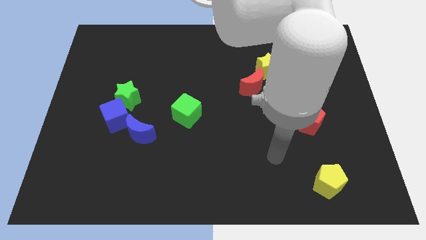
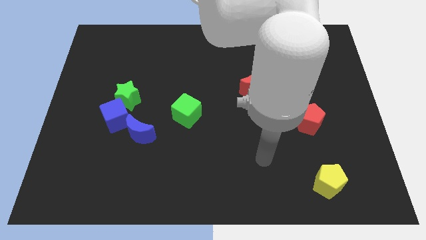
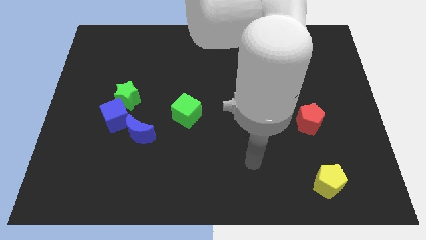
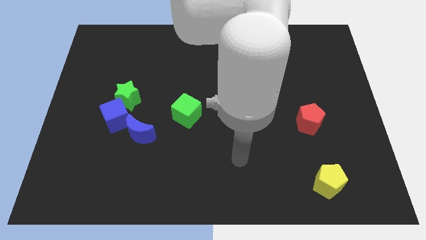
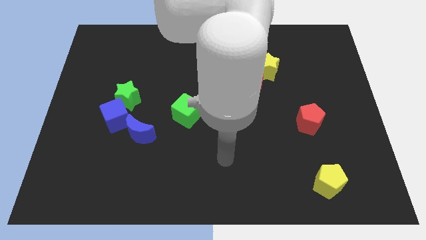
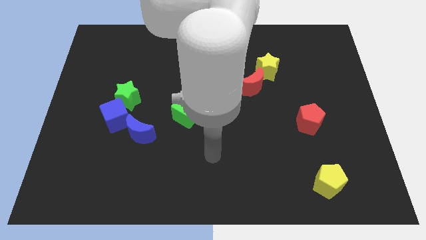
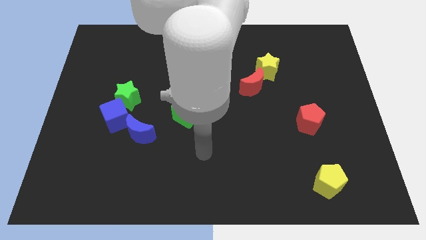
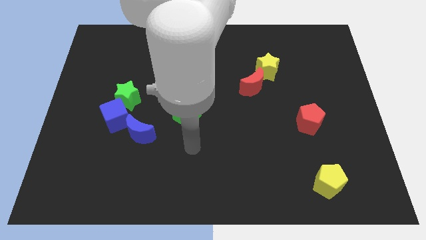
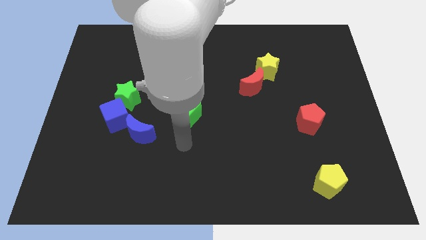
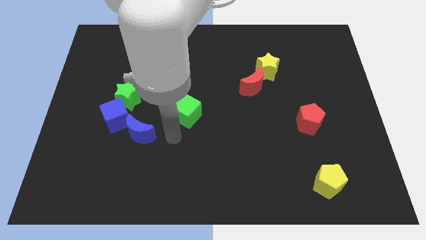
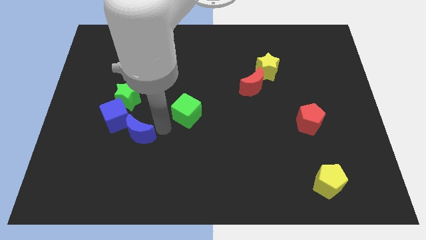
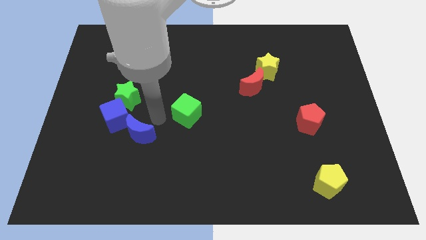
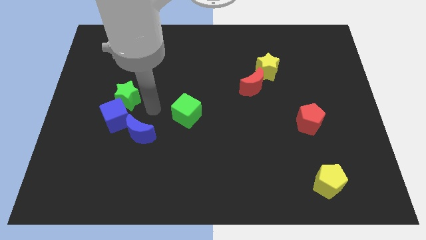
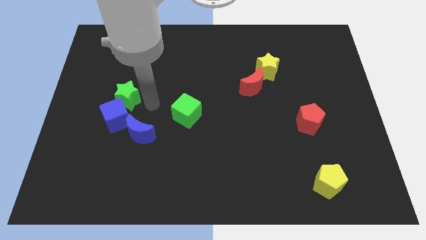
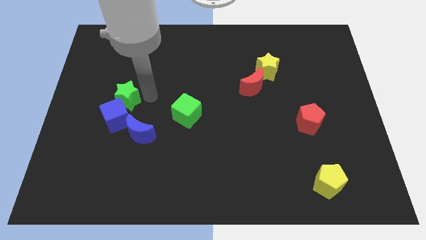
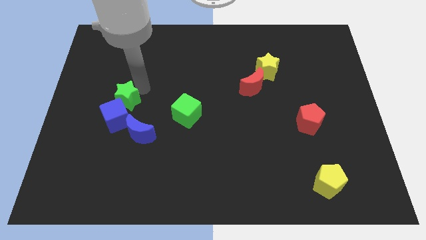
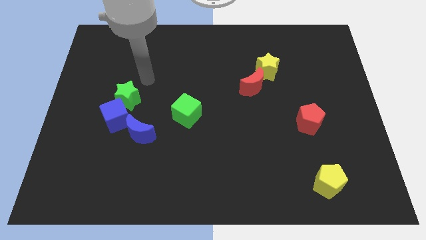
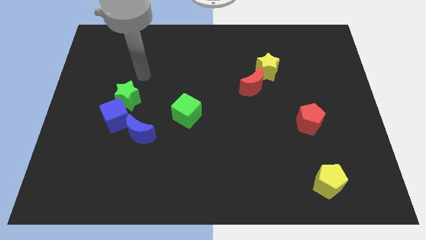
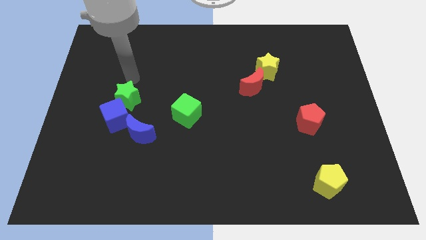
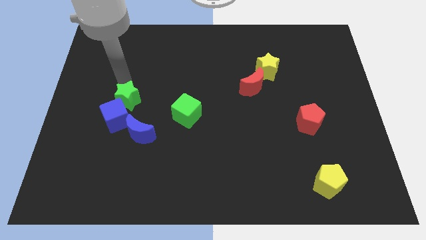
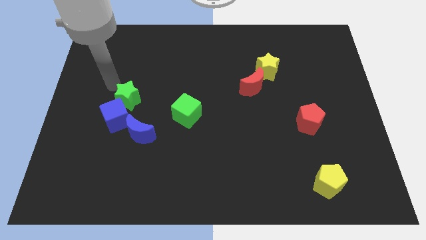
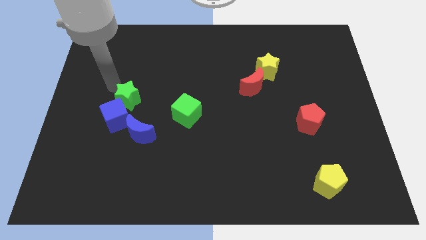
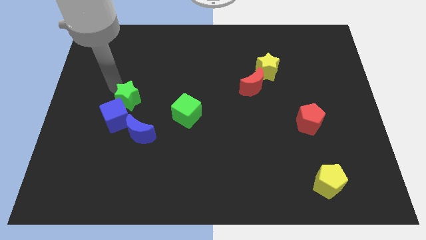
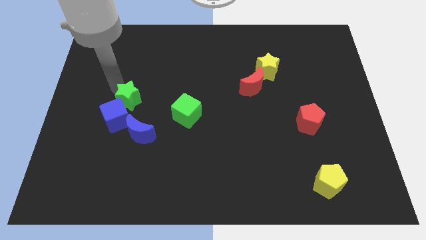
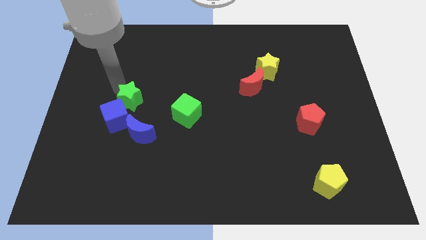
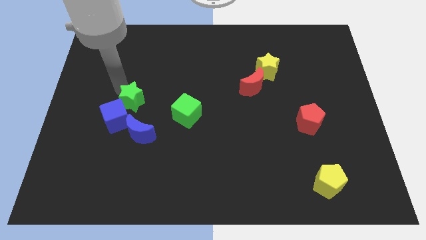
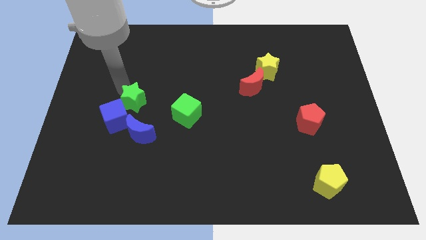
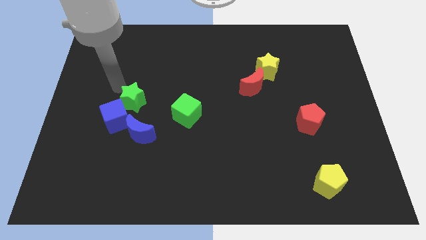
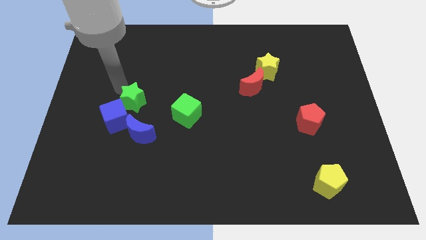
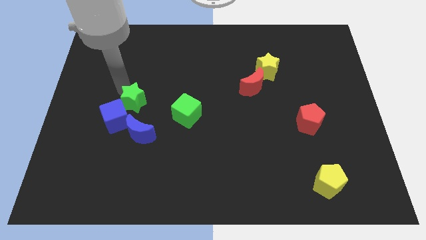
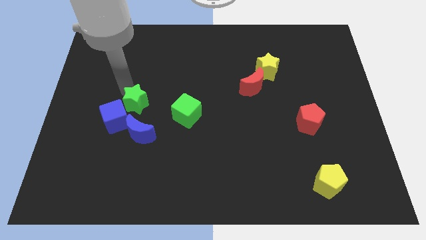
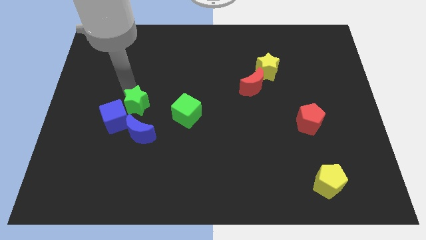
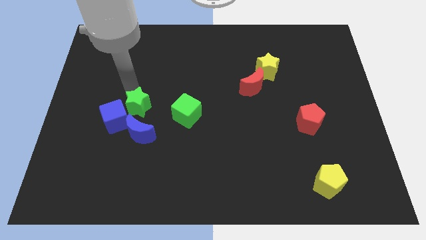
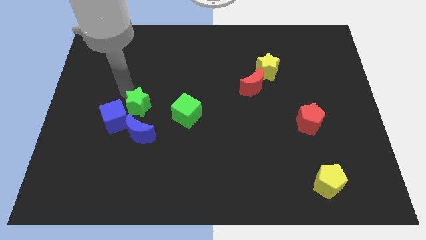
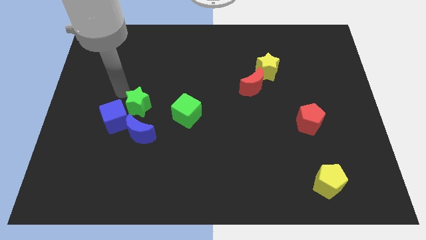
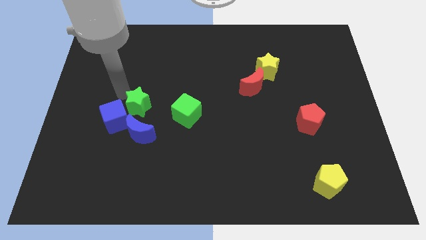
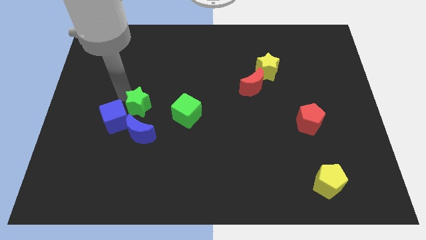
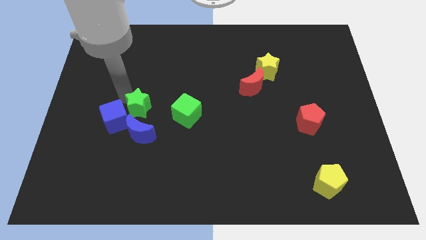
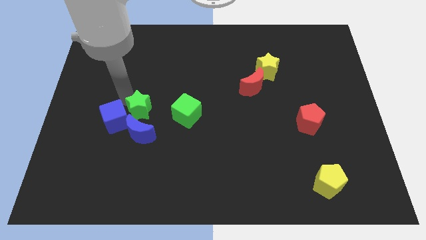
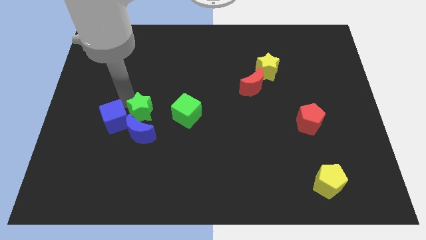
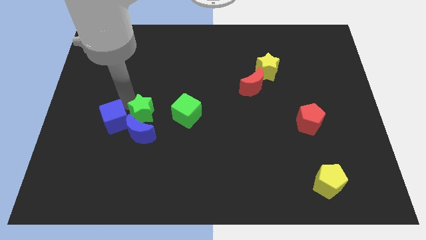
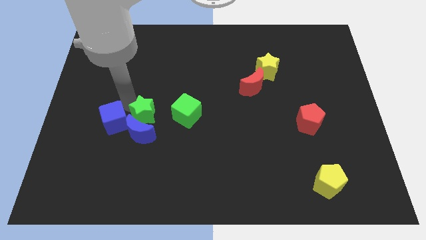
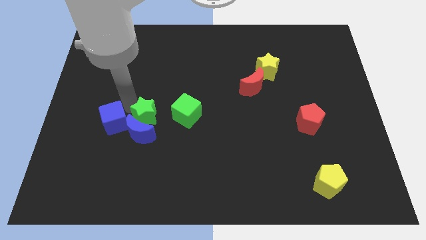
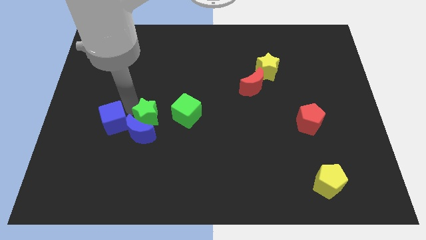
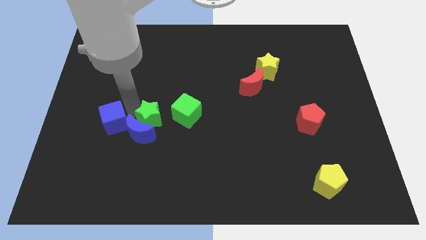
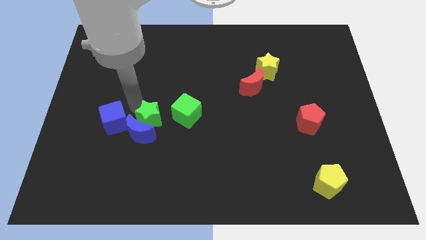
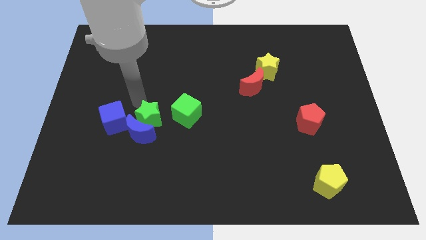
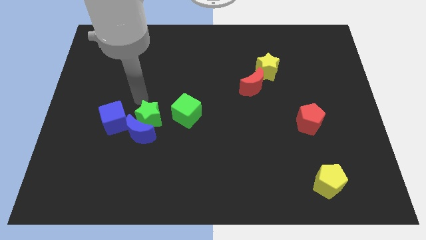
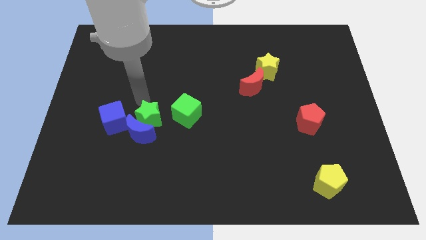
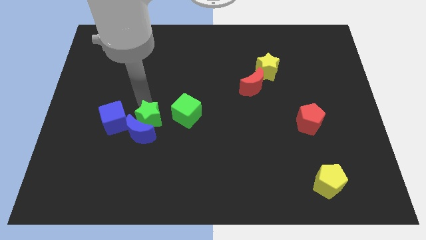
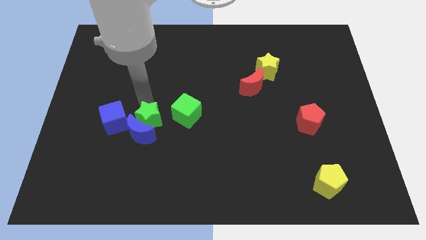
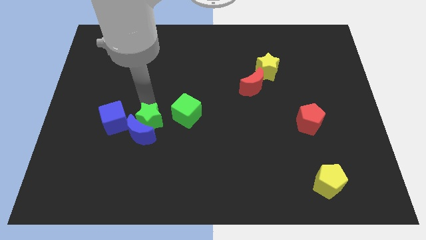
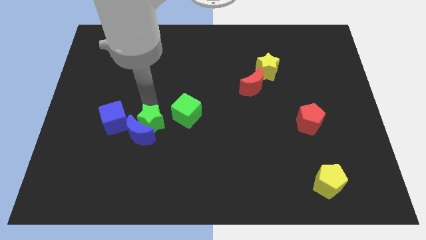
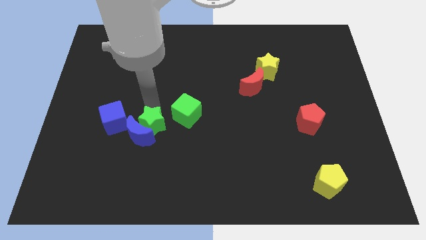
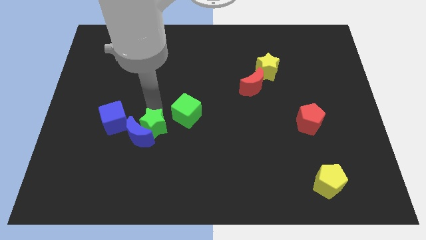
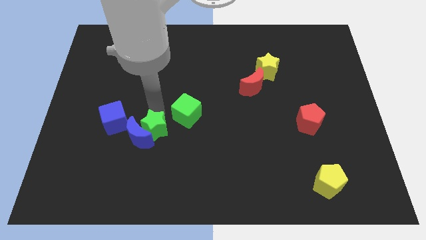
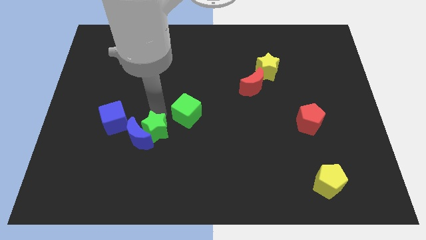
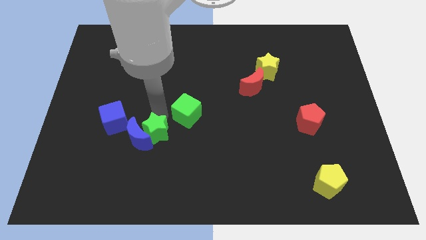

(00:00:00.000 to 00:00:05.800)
push the green star a little down

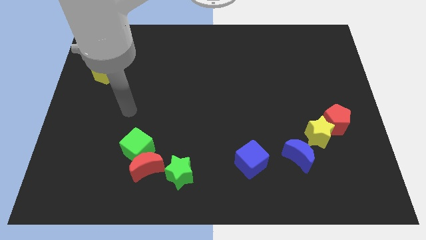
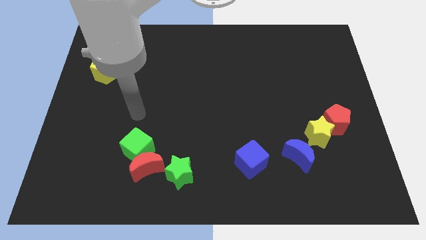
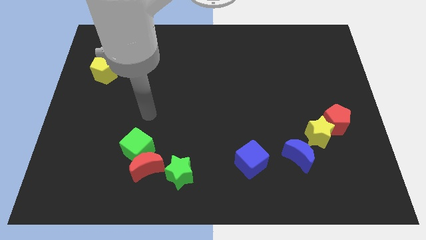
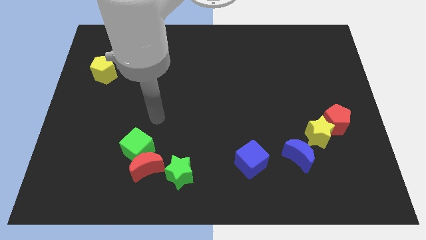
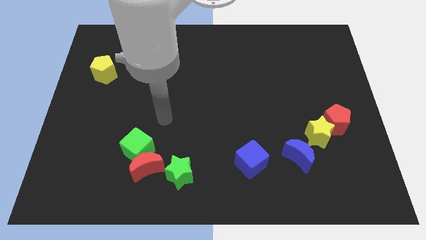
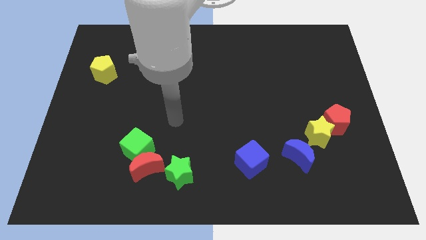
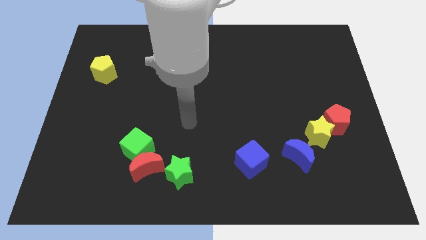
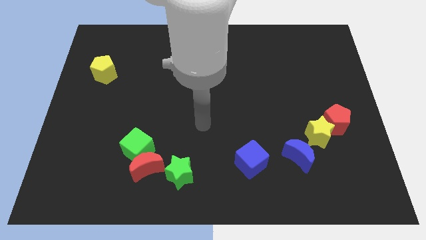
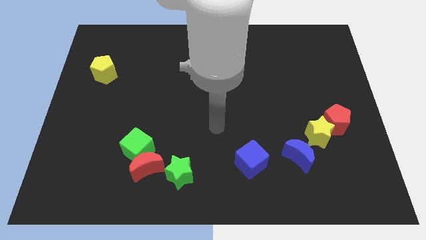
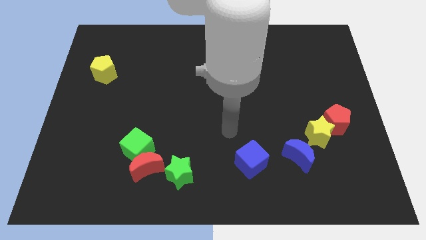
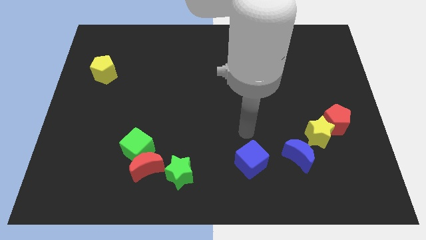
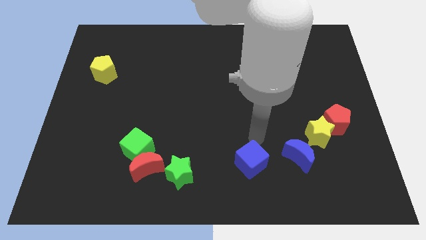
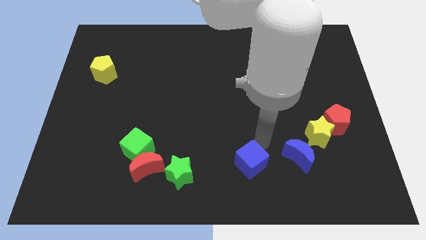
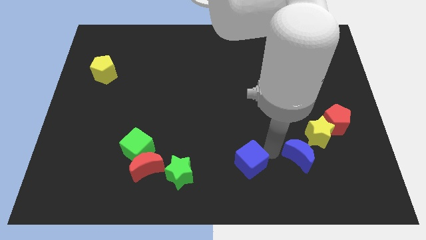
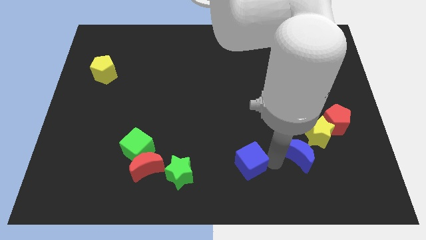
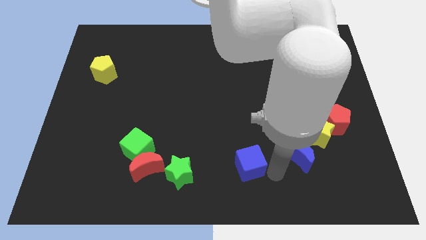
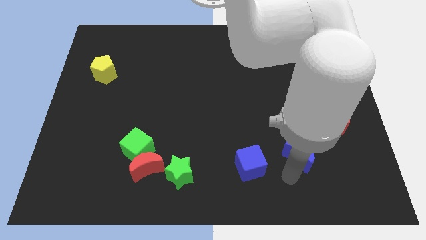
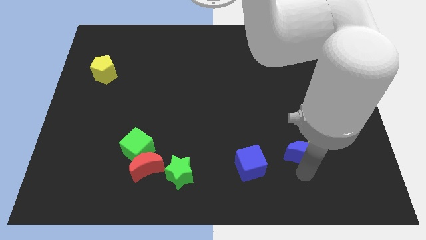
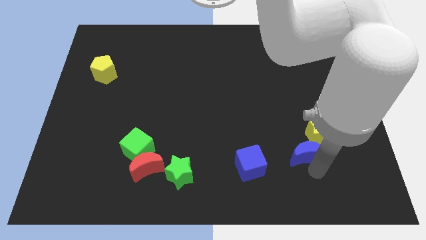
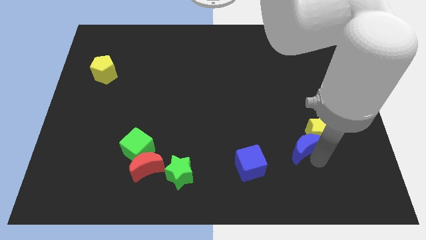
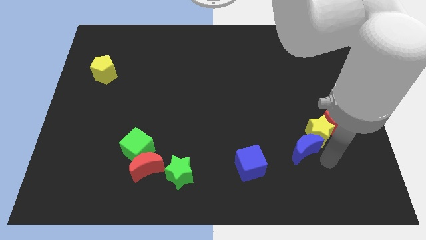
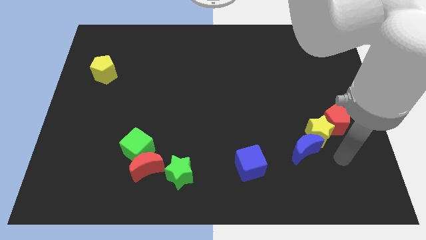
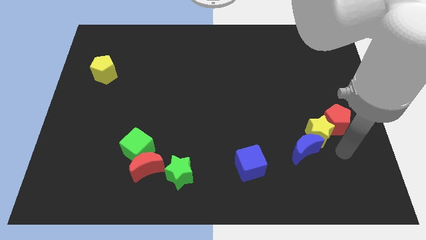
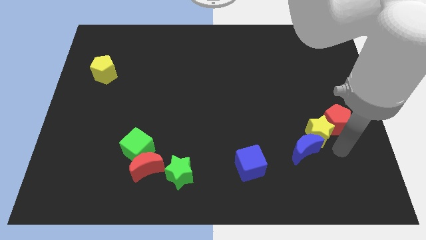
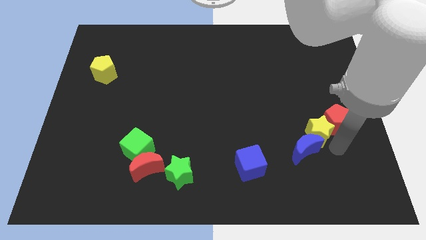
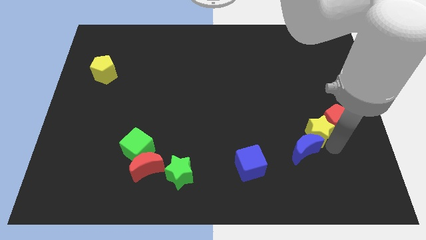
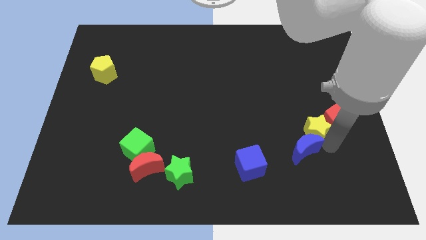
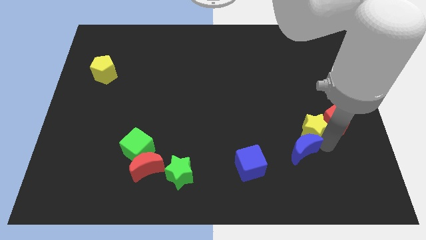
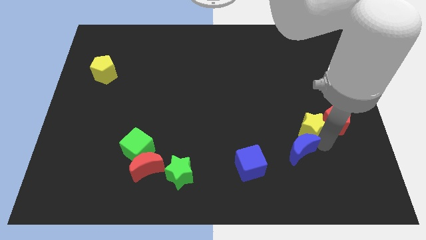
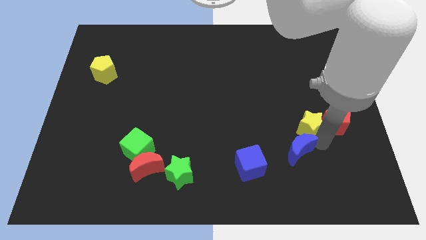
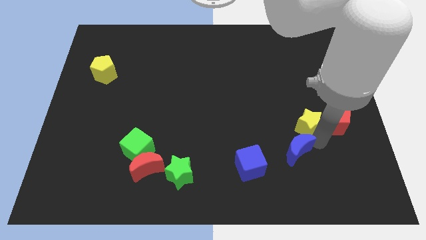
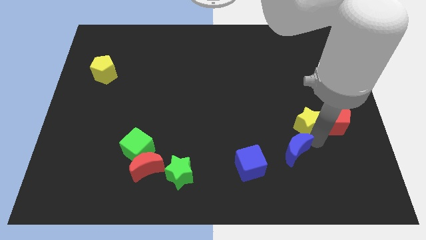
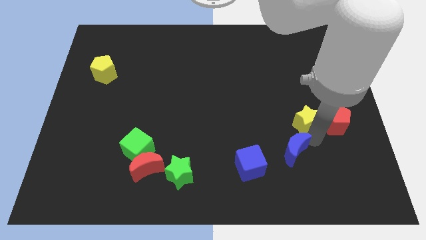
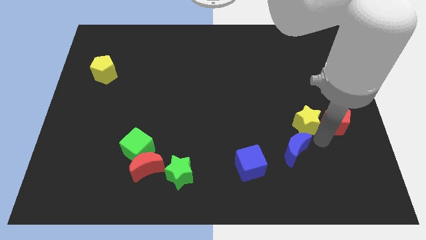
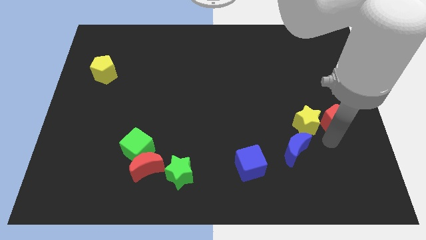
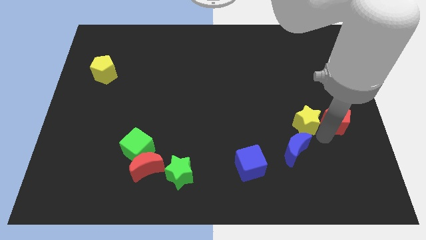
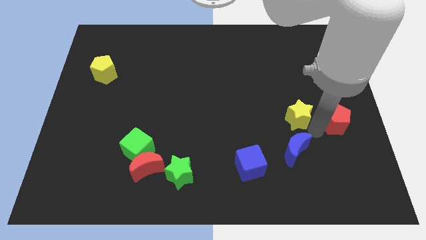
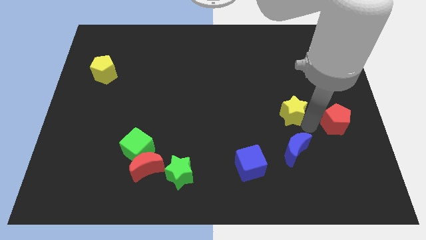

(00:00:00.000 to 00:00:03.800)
slightly move the yellow star up and then left
